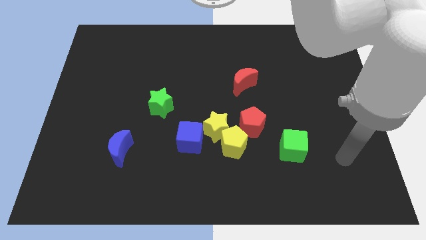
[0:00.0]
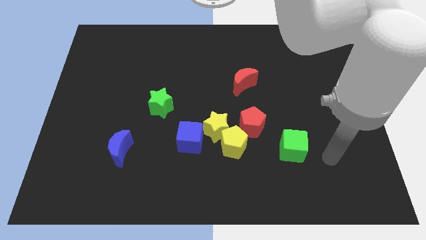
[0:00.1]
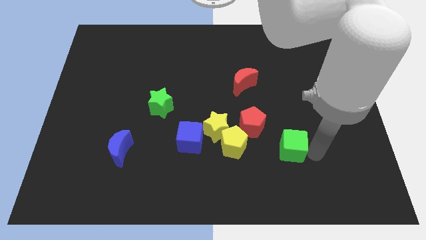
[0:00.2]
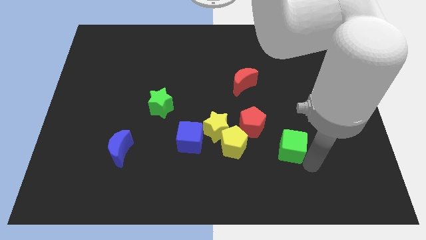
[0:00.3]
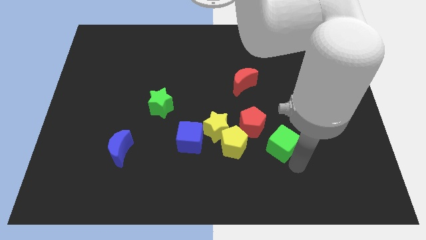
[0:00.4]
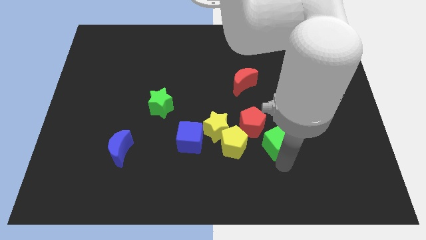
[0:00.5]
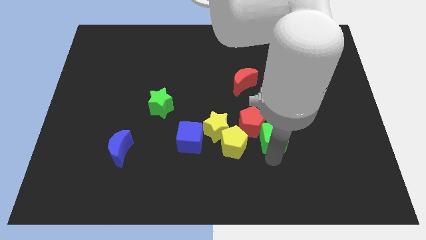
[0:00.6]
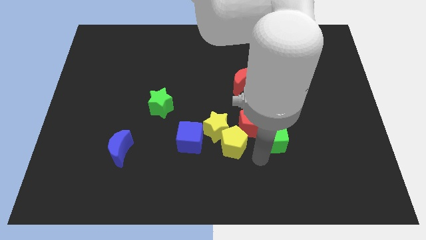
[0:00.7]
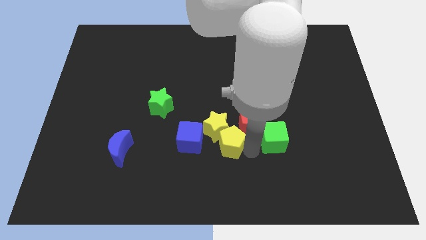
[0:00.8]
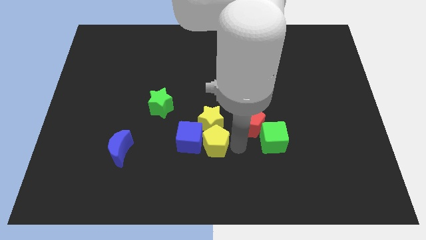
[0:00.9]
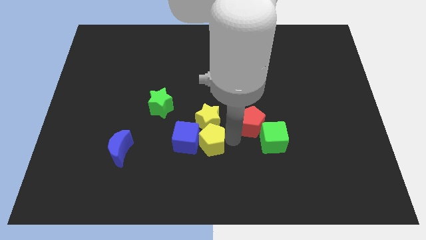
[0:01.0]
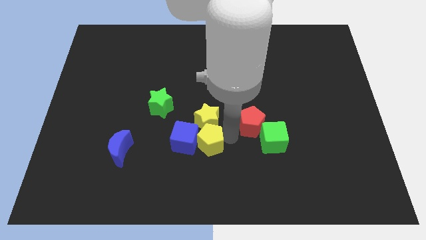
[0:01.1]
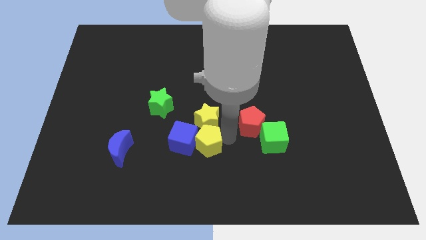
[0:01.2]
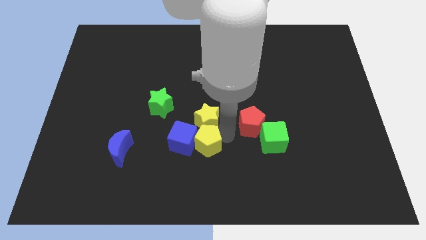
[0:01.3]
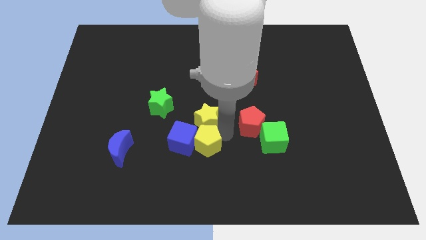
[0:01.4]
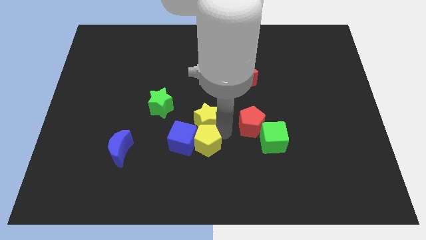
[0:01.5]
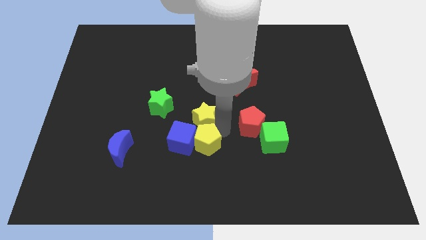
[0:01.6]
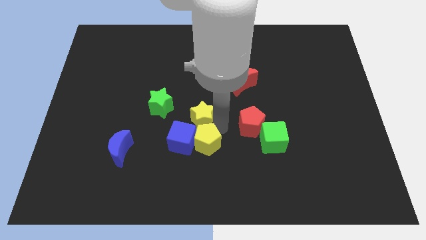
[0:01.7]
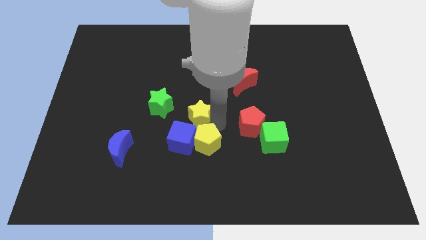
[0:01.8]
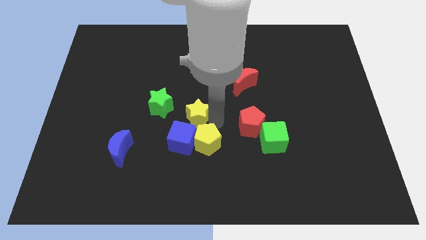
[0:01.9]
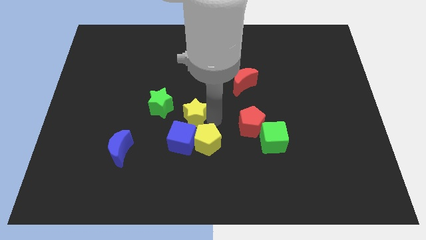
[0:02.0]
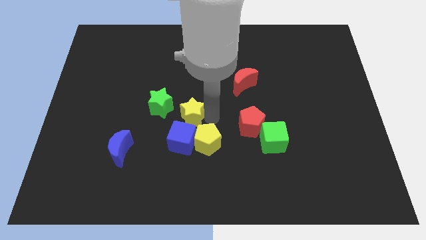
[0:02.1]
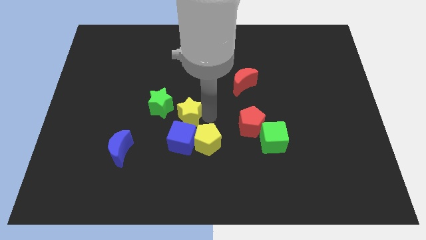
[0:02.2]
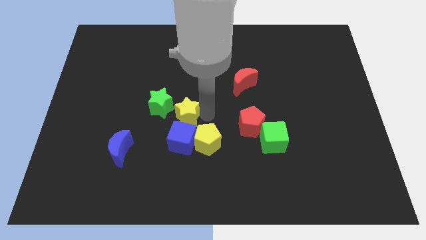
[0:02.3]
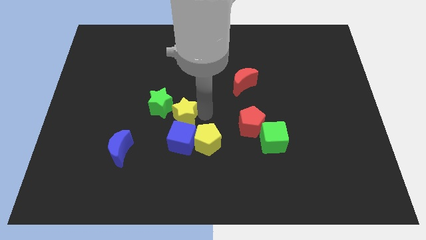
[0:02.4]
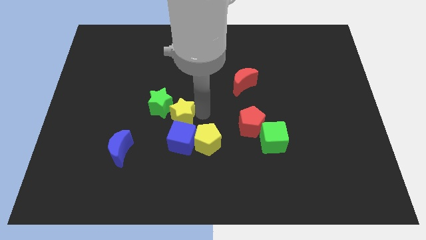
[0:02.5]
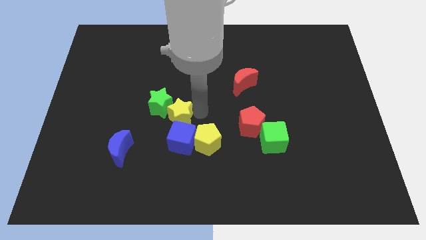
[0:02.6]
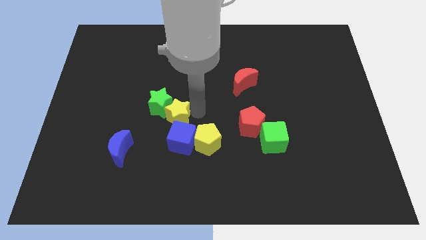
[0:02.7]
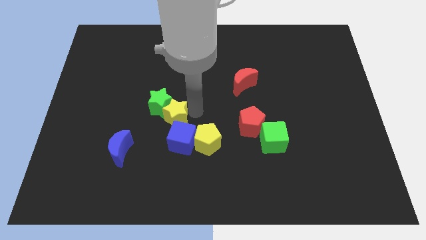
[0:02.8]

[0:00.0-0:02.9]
pull the yellow star apart from the group

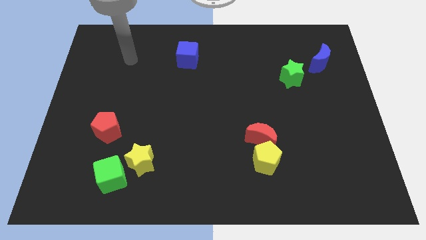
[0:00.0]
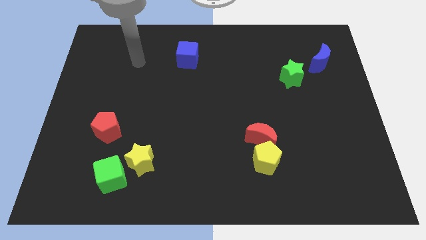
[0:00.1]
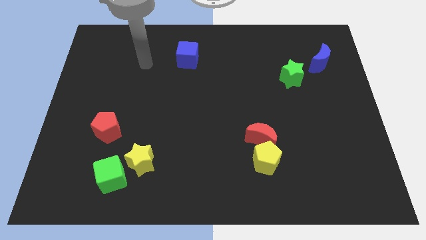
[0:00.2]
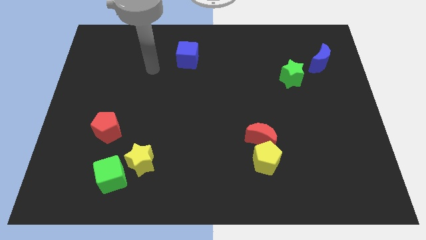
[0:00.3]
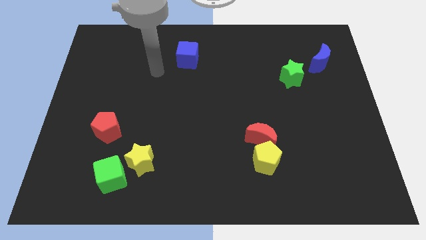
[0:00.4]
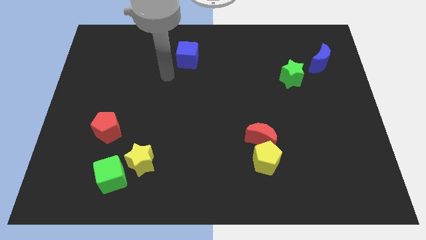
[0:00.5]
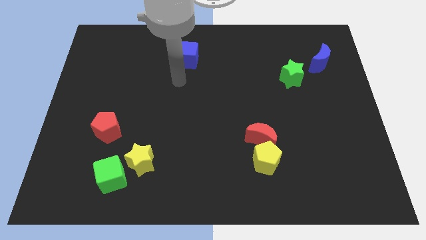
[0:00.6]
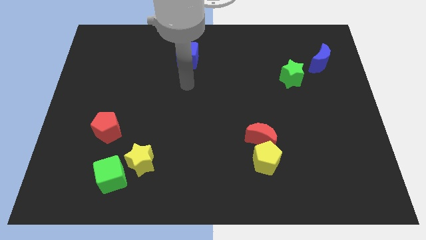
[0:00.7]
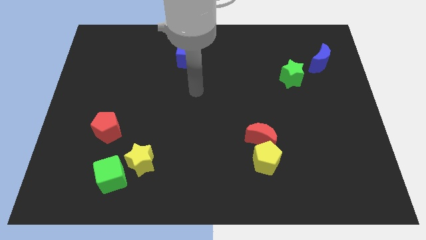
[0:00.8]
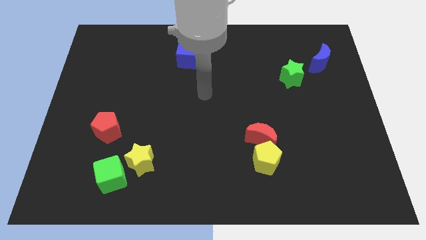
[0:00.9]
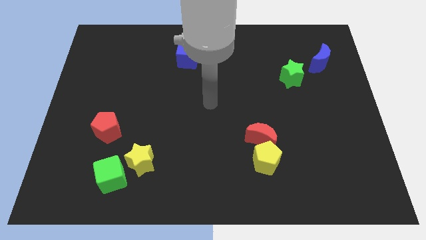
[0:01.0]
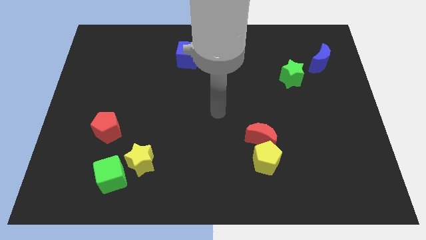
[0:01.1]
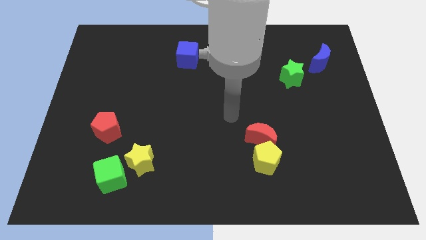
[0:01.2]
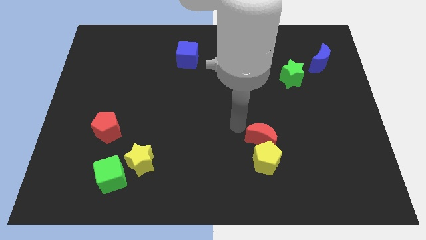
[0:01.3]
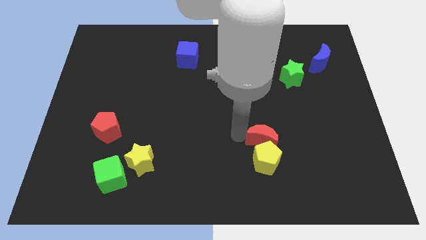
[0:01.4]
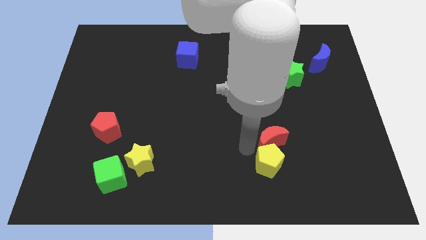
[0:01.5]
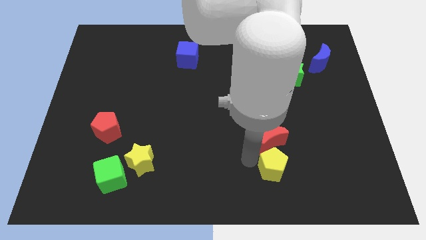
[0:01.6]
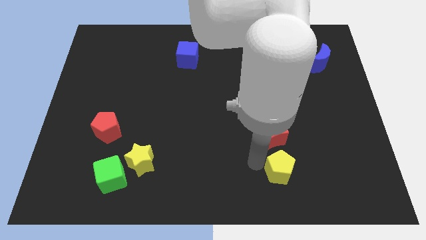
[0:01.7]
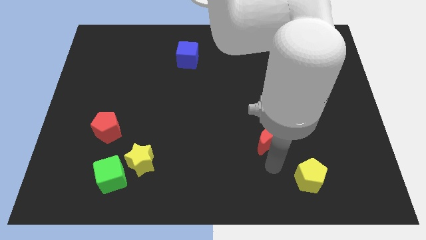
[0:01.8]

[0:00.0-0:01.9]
pull the red moon apart from the yellow pentagon

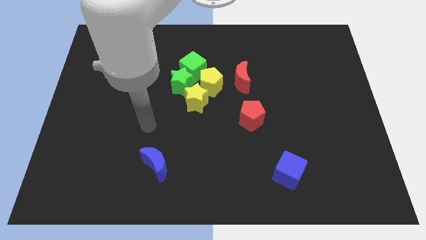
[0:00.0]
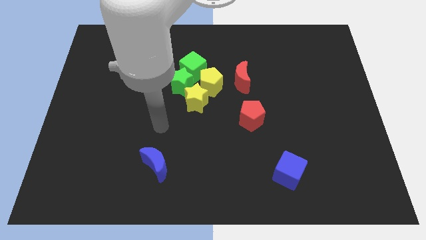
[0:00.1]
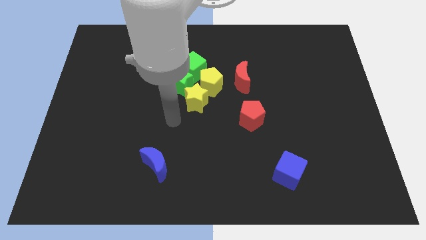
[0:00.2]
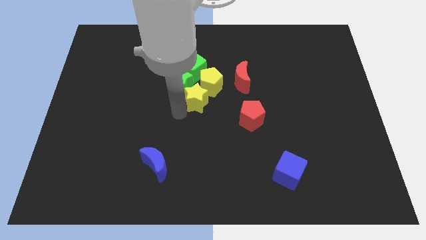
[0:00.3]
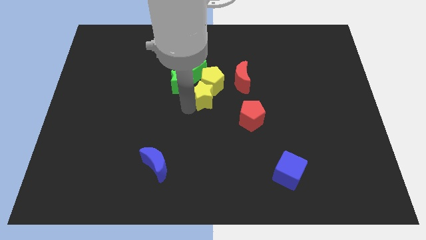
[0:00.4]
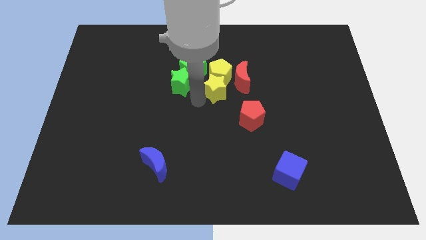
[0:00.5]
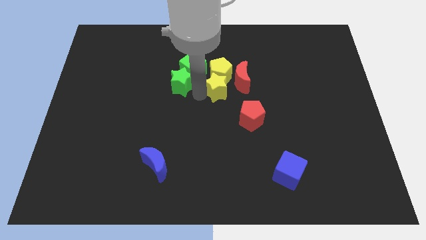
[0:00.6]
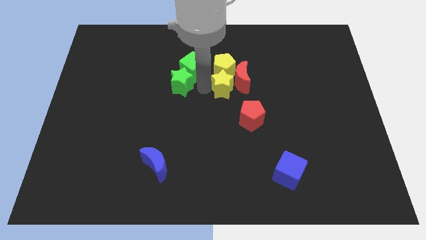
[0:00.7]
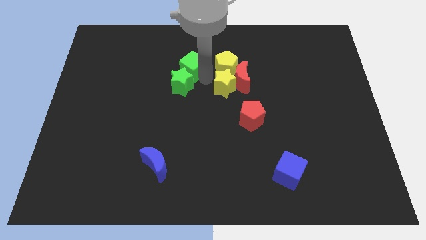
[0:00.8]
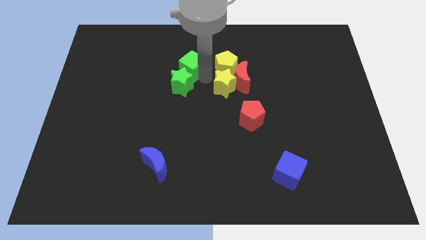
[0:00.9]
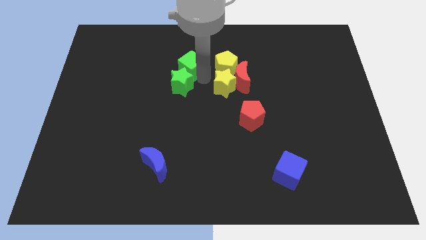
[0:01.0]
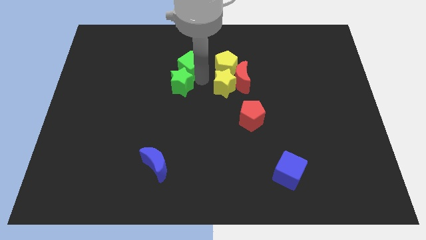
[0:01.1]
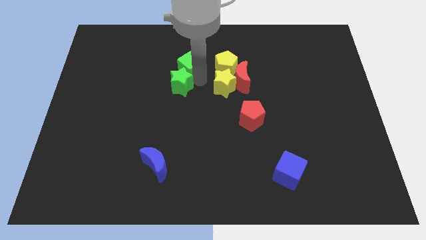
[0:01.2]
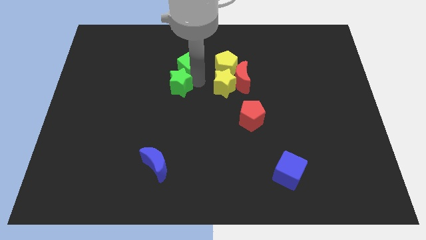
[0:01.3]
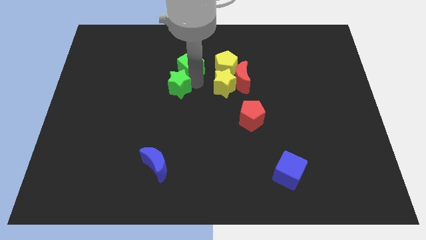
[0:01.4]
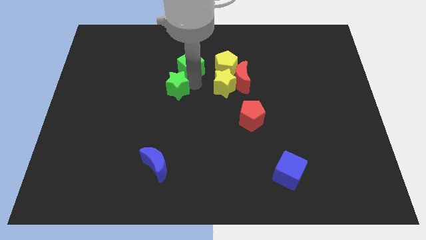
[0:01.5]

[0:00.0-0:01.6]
move the green star away from the green cube, yellow star, and yellow pentagon

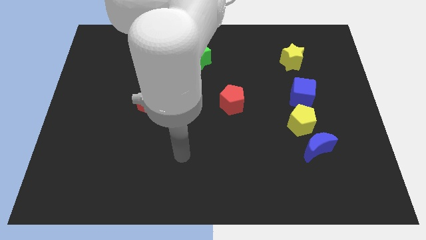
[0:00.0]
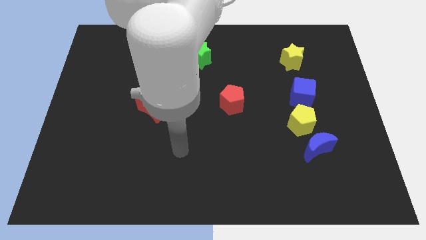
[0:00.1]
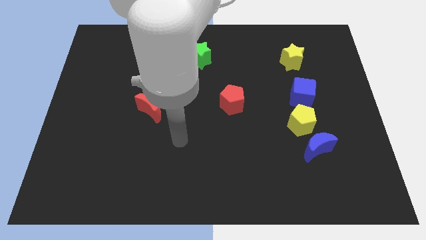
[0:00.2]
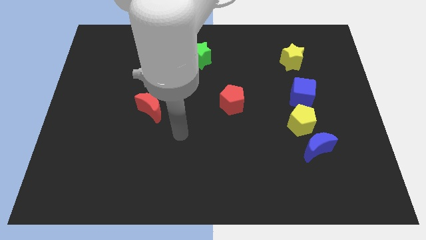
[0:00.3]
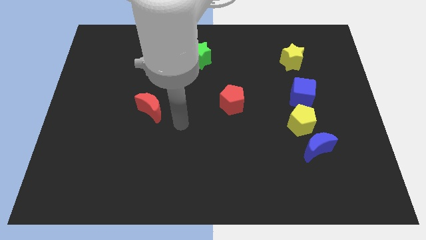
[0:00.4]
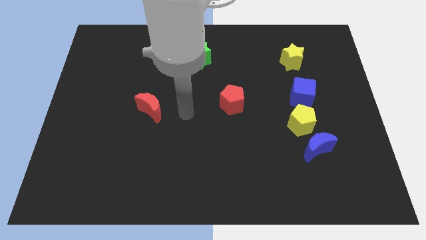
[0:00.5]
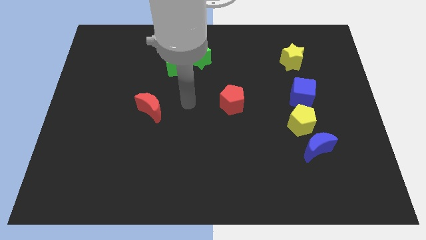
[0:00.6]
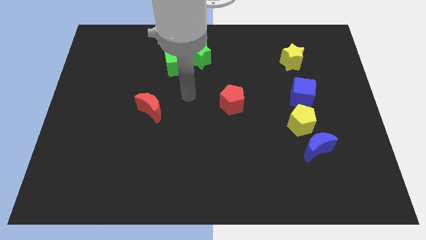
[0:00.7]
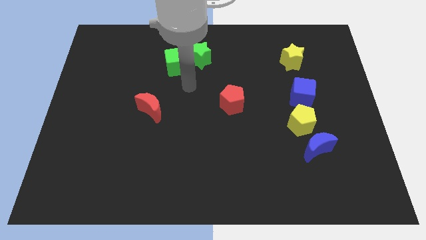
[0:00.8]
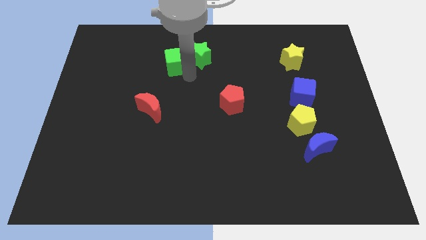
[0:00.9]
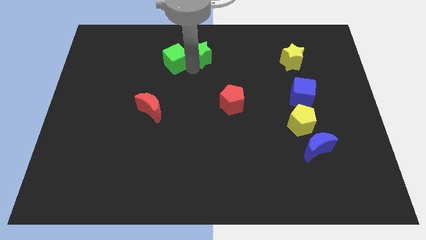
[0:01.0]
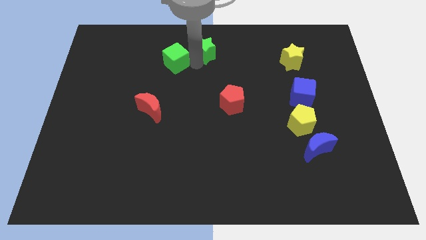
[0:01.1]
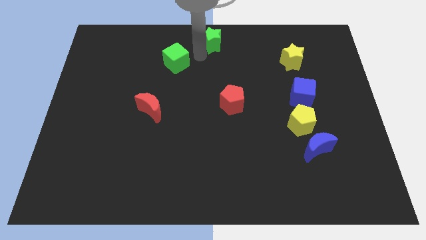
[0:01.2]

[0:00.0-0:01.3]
move the green cube away from the green star

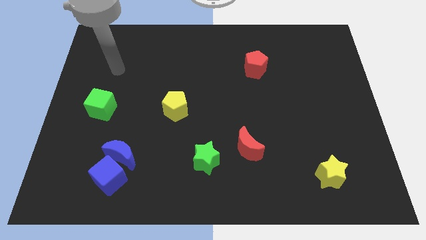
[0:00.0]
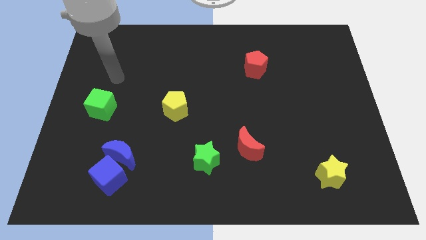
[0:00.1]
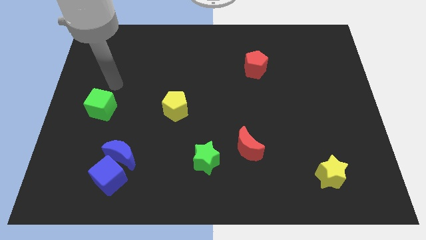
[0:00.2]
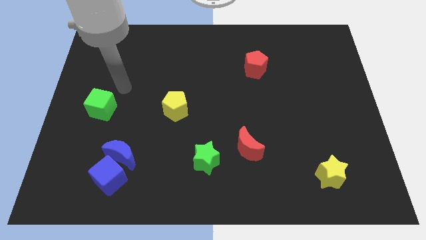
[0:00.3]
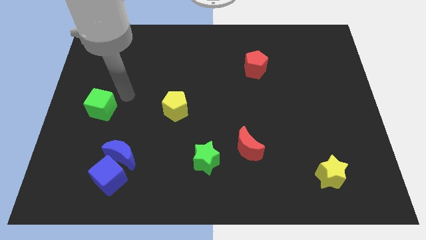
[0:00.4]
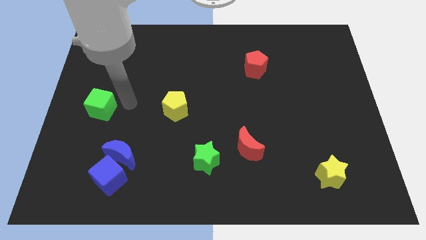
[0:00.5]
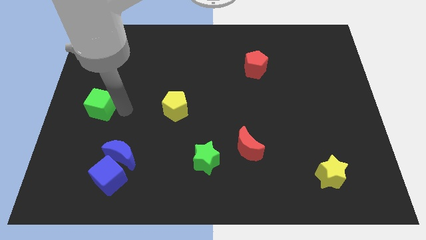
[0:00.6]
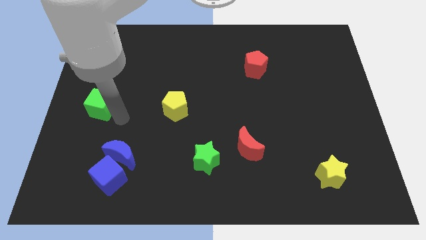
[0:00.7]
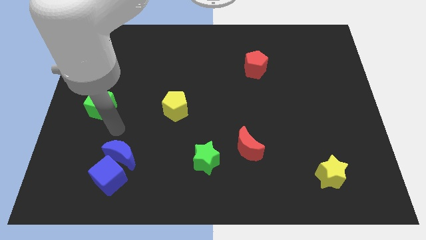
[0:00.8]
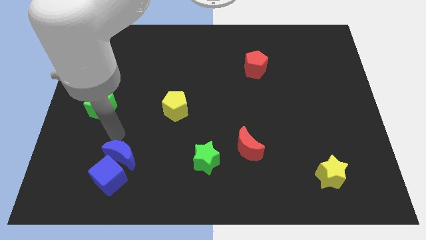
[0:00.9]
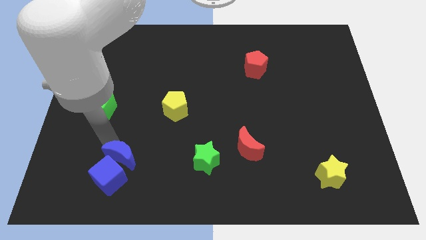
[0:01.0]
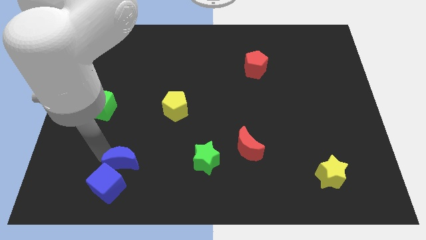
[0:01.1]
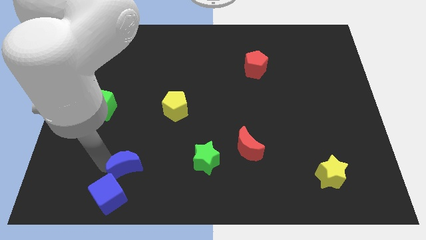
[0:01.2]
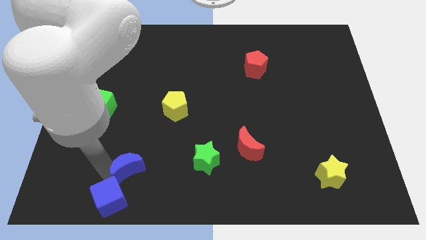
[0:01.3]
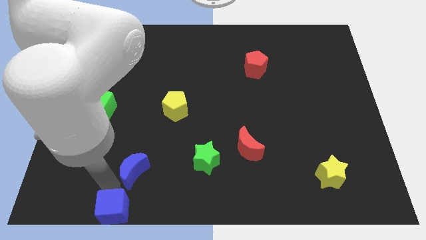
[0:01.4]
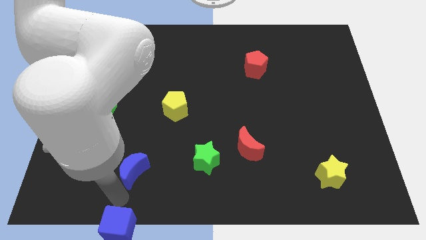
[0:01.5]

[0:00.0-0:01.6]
move the blue moon away from the blue cube
